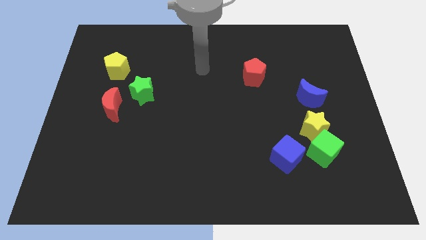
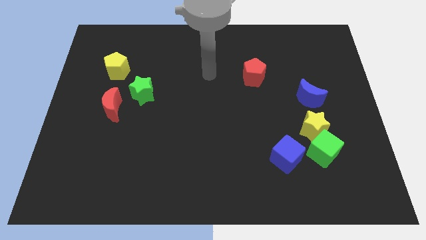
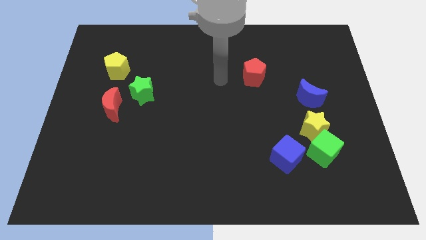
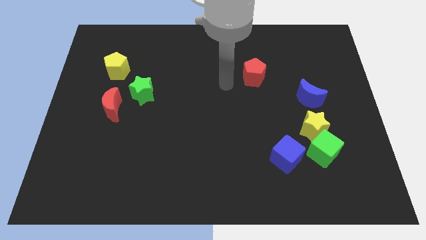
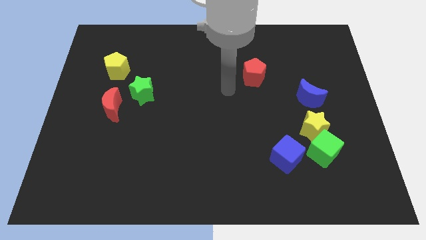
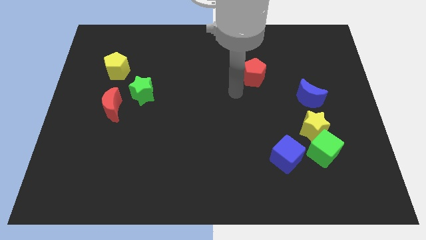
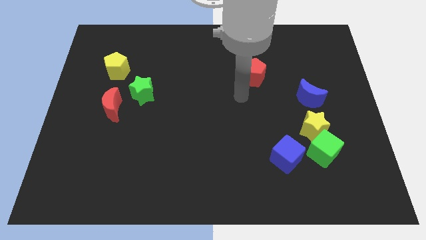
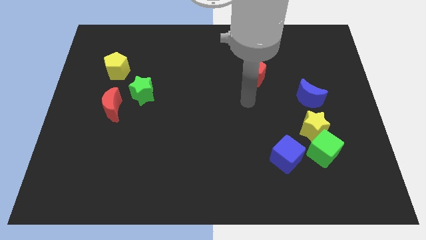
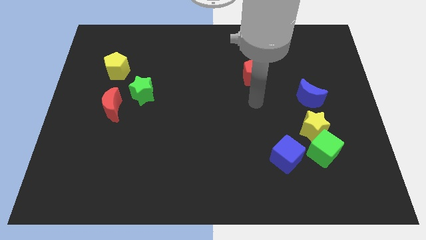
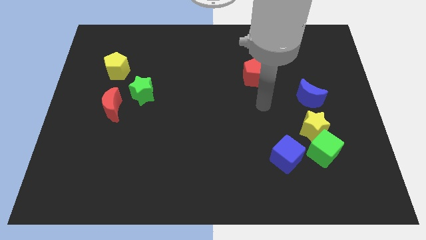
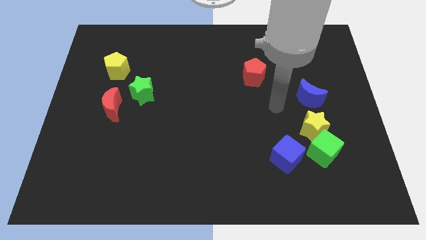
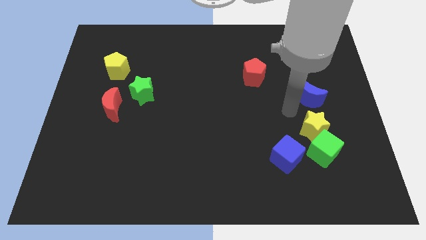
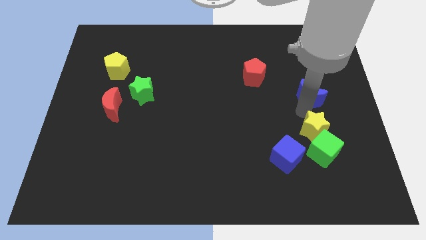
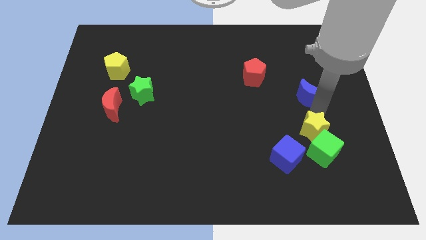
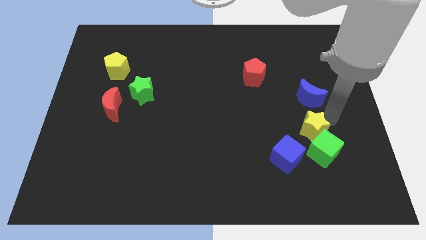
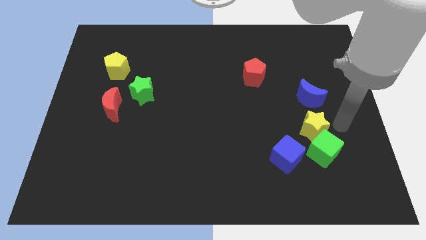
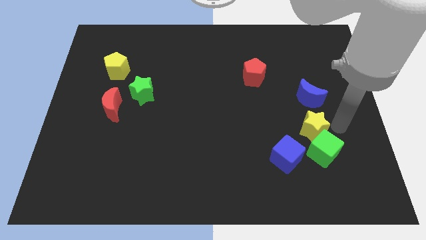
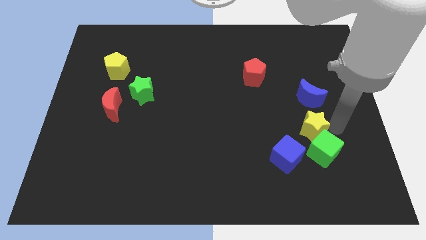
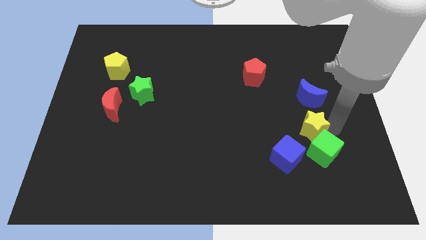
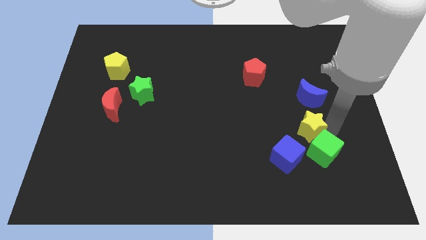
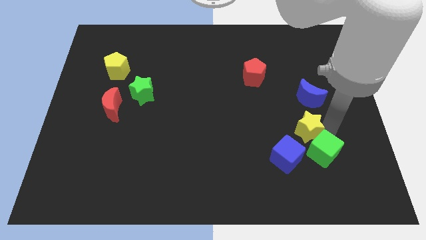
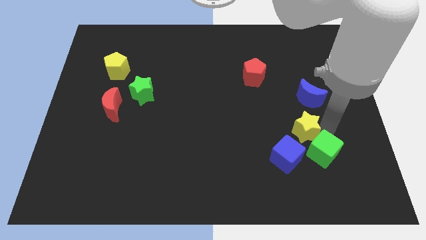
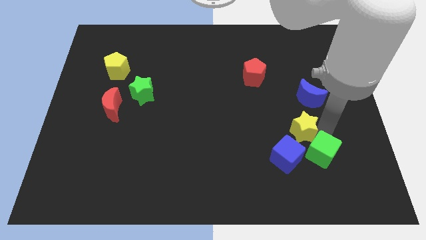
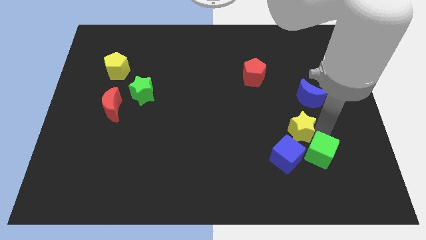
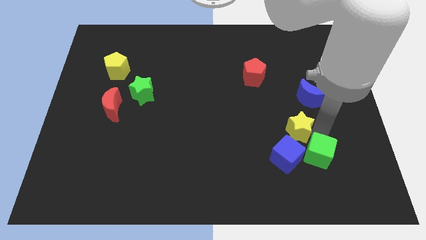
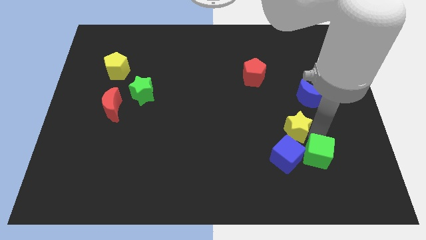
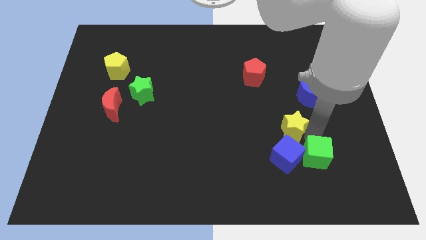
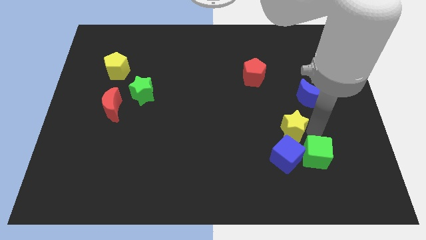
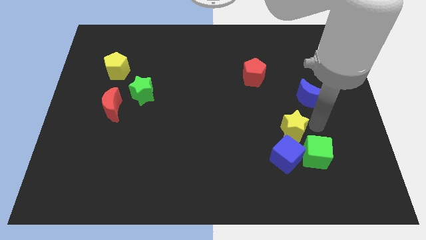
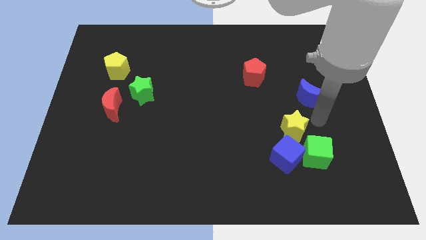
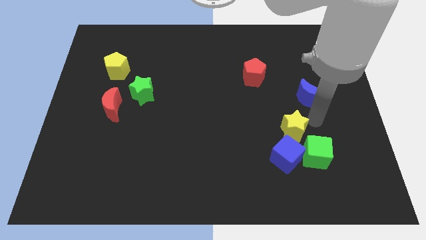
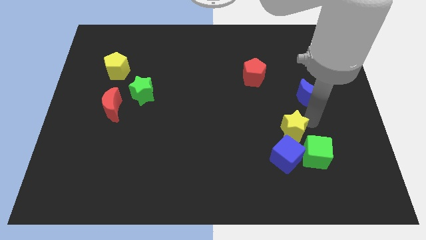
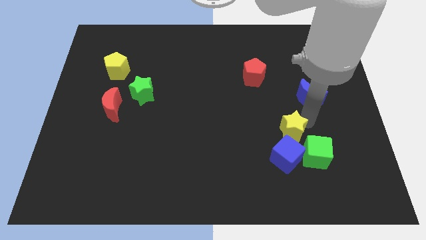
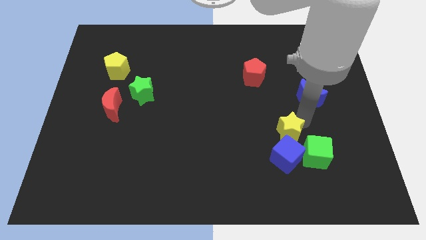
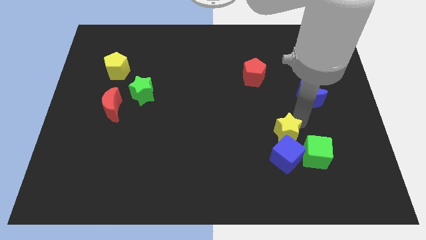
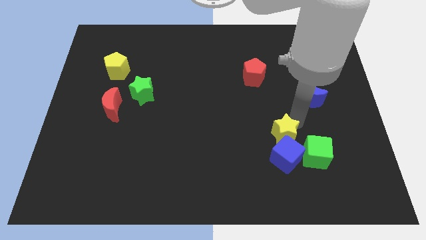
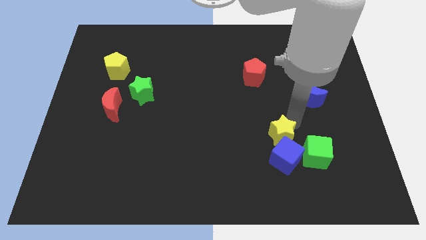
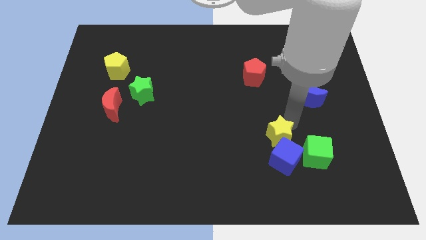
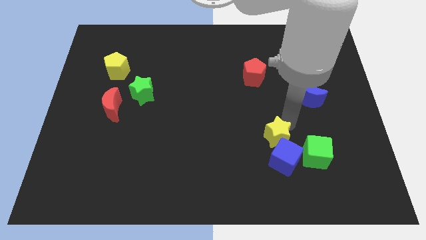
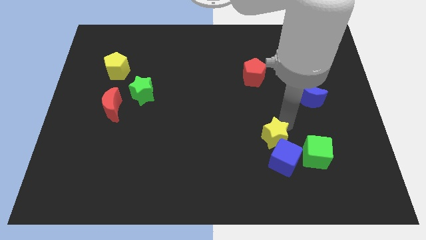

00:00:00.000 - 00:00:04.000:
slide the yellow star diagonally downwards and left a little bit

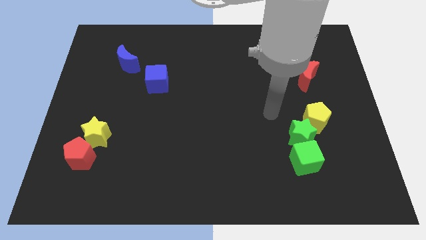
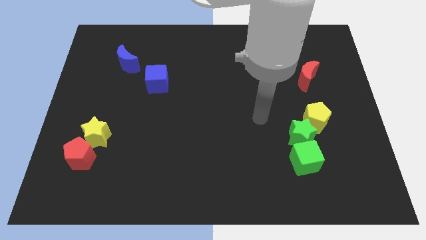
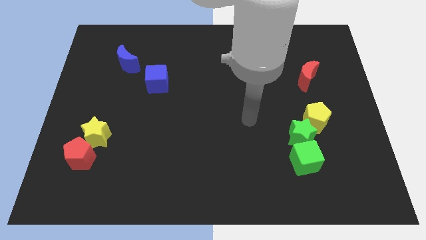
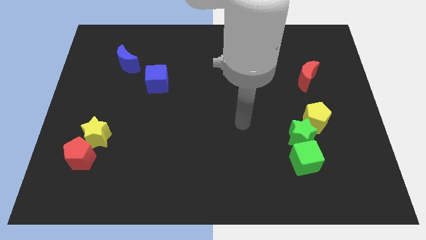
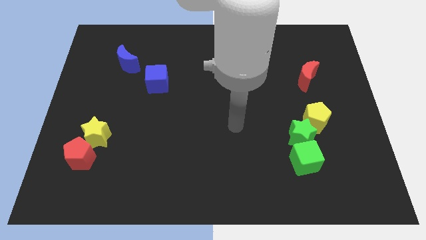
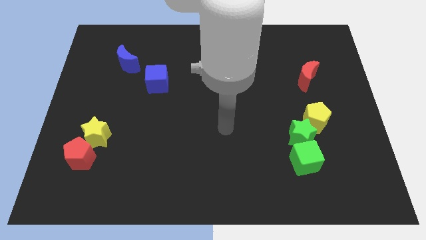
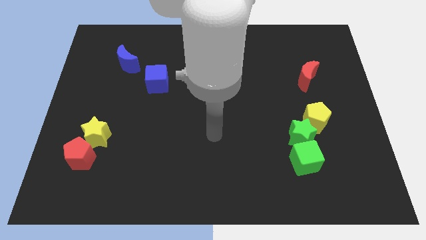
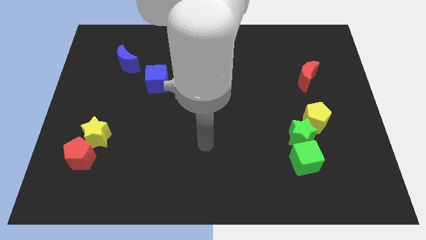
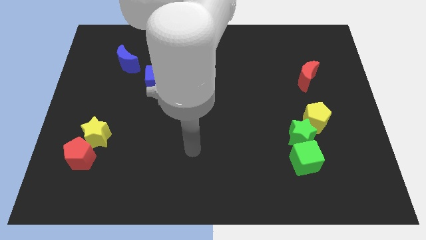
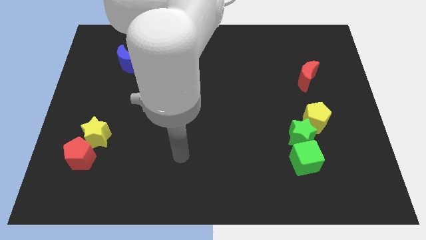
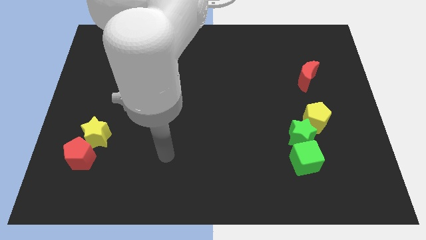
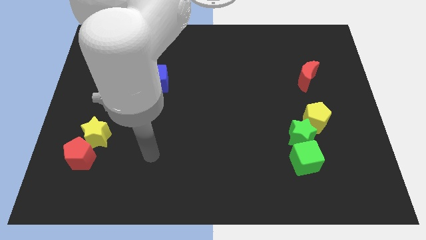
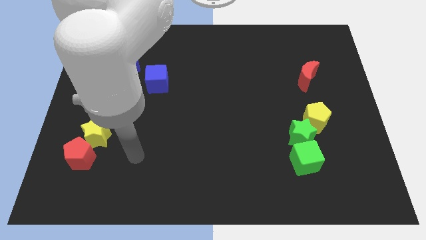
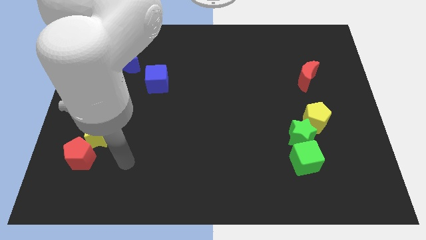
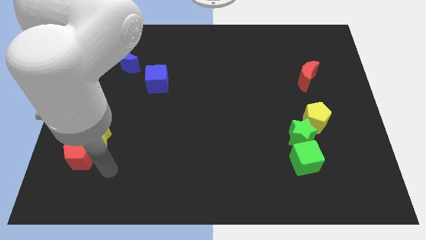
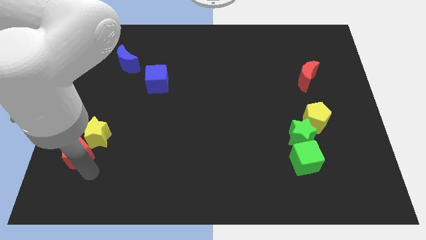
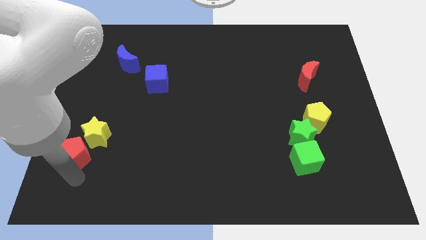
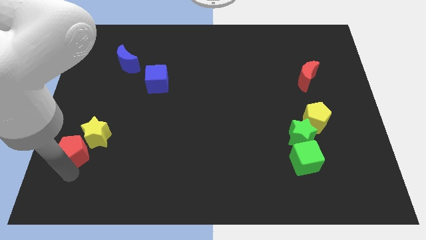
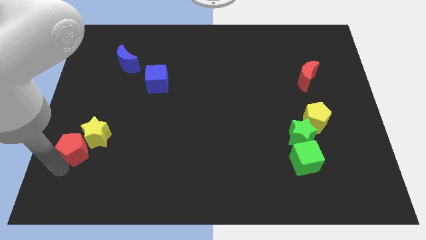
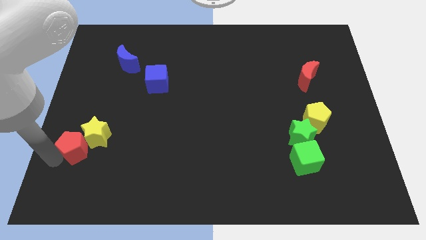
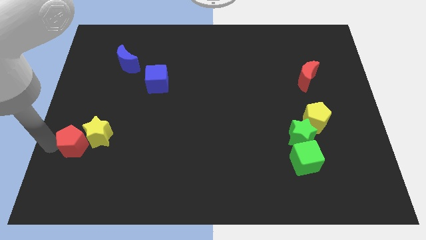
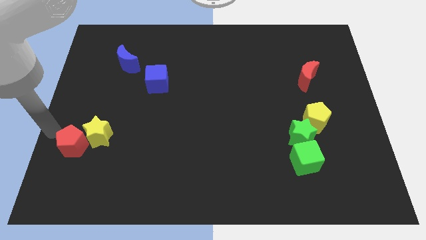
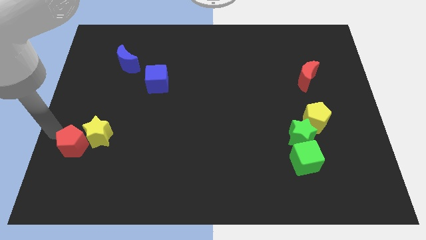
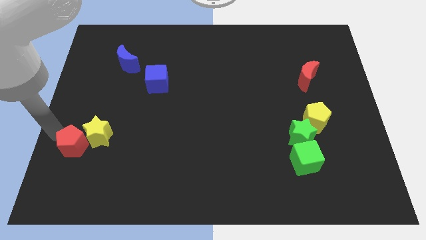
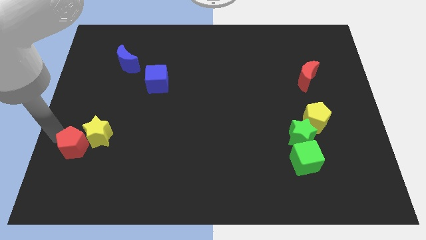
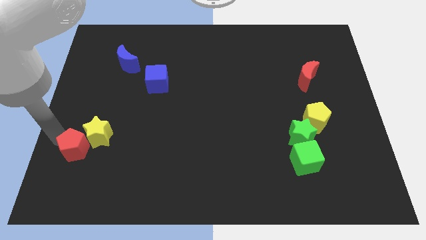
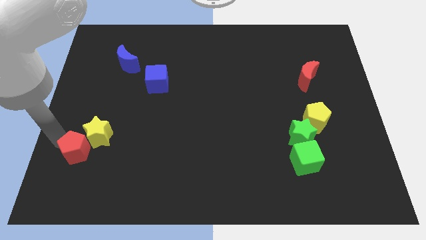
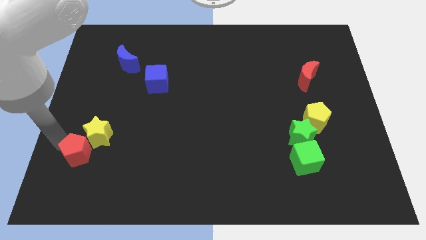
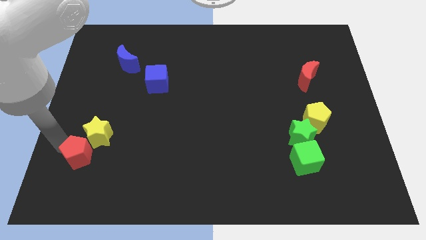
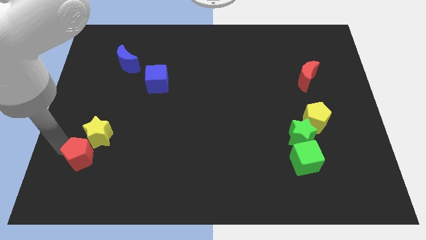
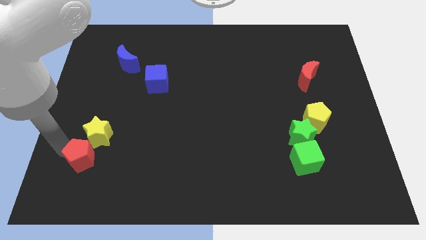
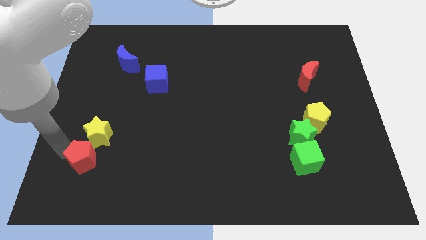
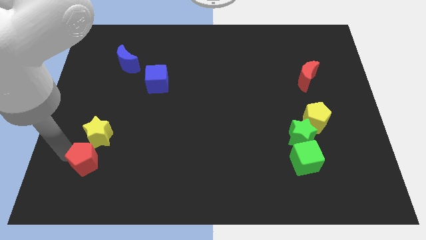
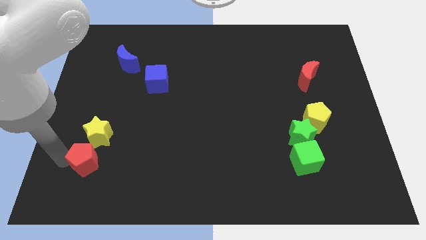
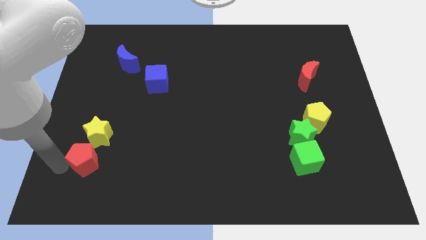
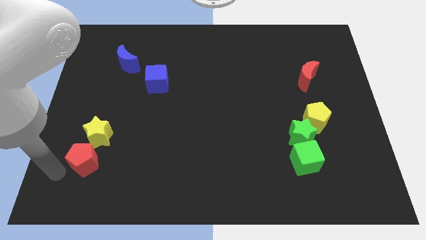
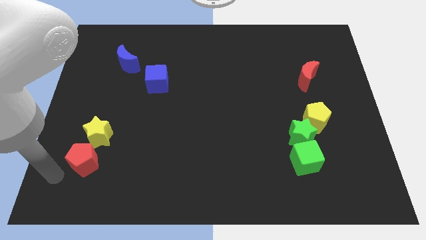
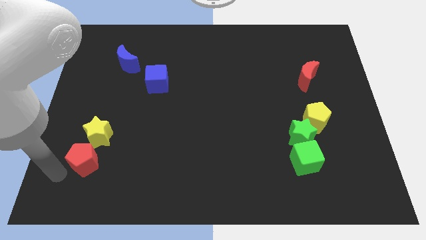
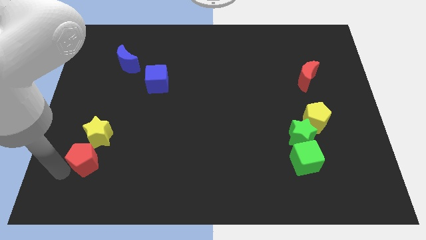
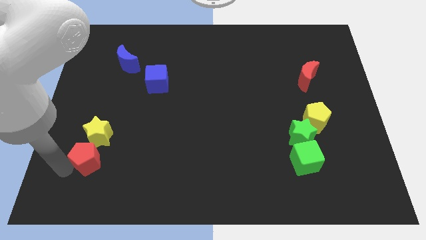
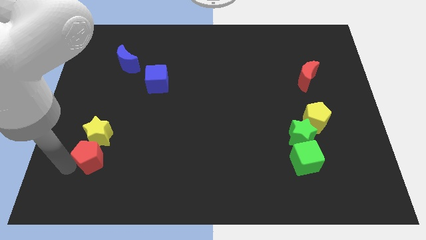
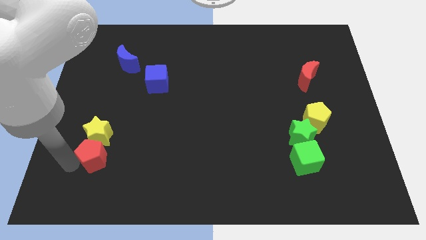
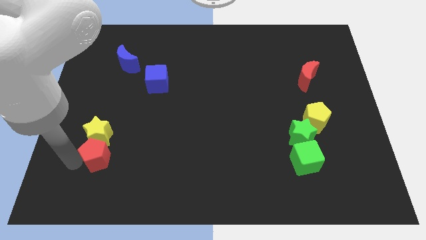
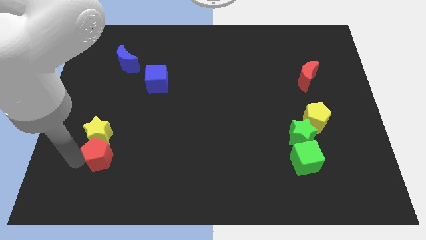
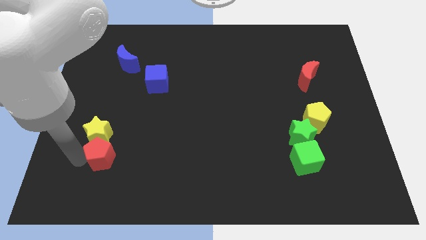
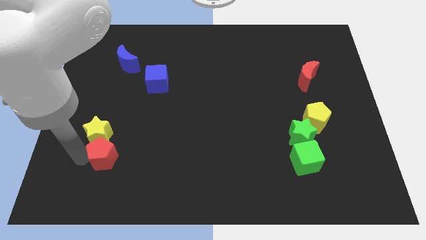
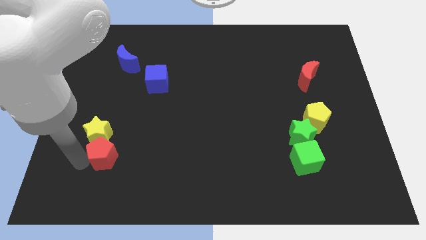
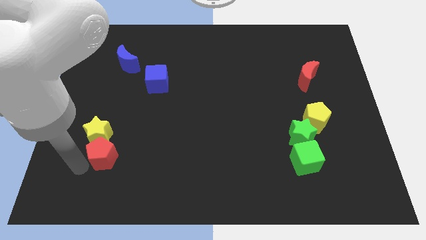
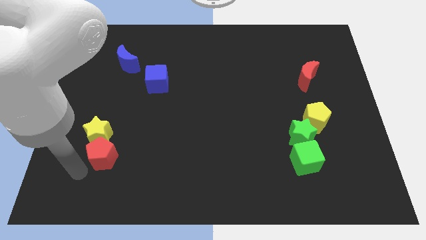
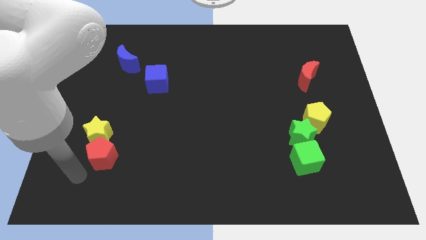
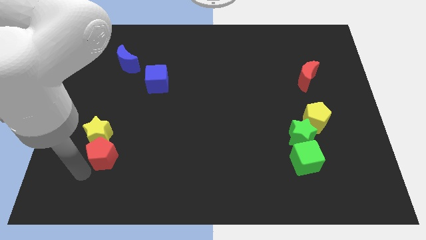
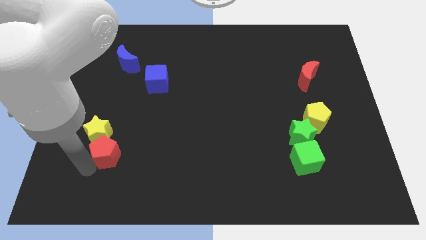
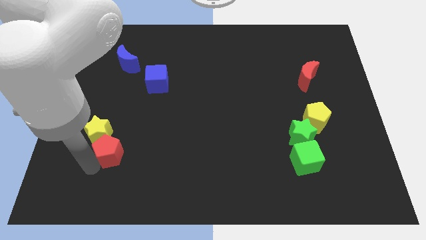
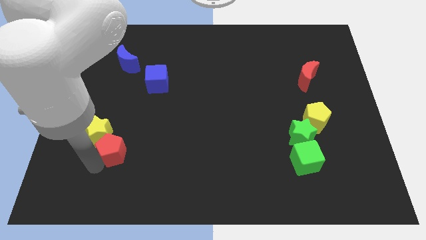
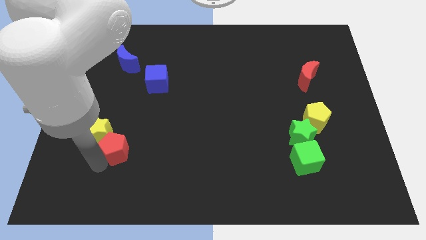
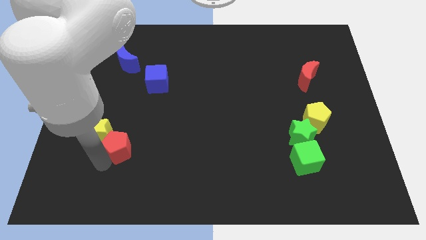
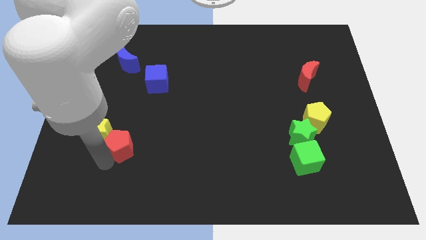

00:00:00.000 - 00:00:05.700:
move the red pentagon upwards and then right a bit
